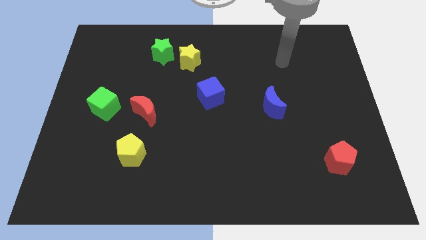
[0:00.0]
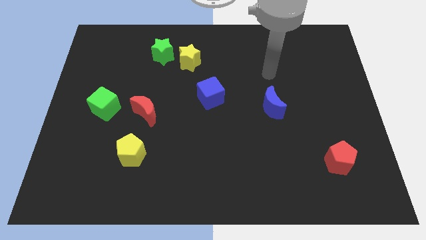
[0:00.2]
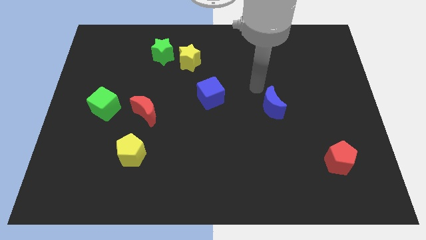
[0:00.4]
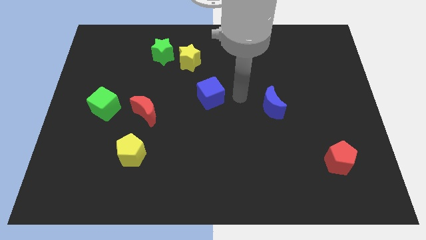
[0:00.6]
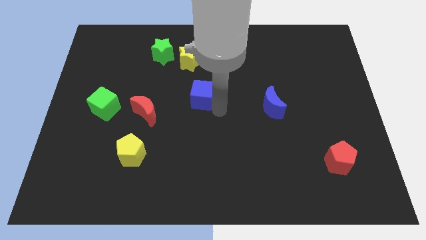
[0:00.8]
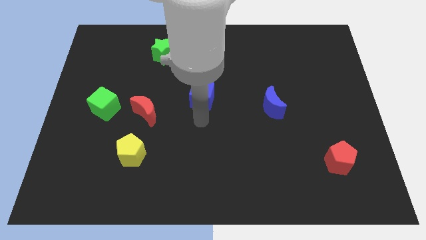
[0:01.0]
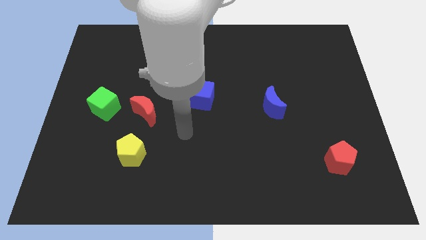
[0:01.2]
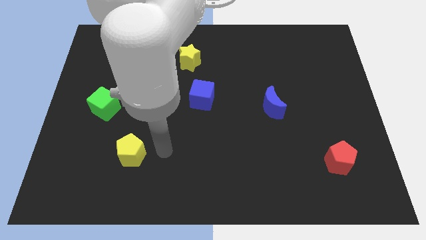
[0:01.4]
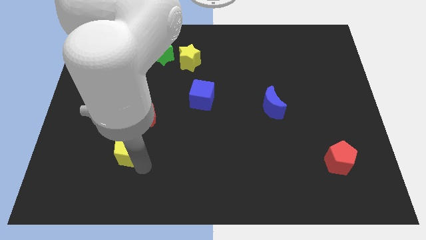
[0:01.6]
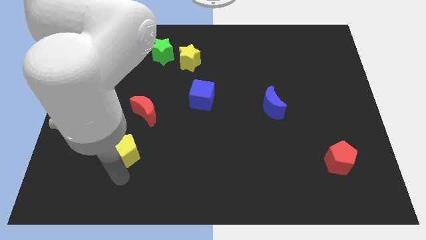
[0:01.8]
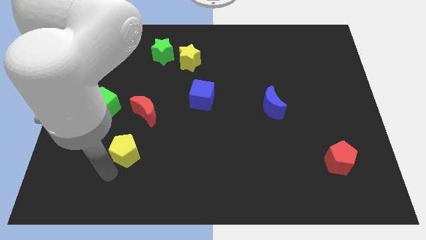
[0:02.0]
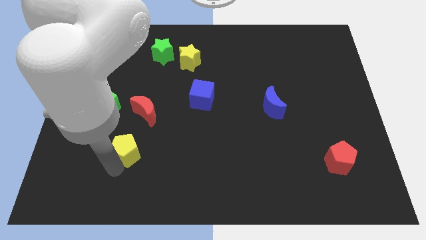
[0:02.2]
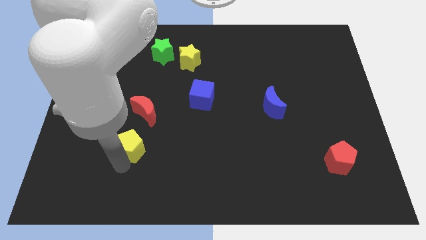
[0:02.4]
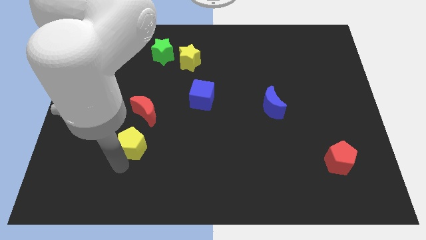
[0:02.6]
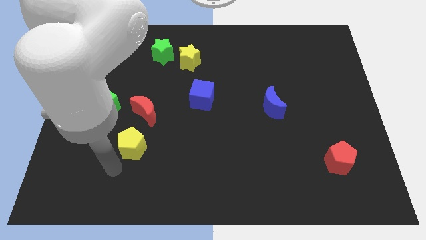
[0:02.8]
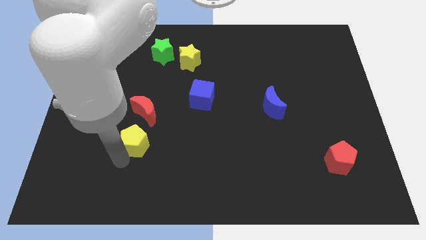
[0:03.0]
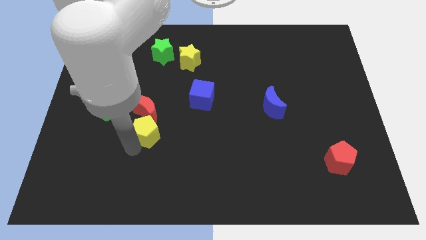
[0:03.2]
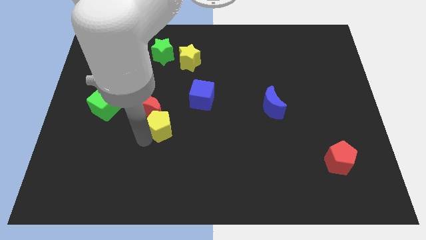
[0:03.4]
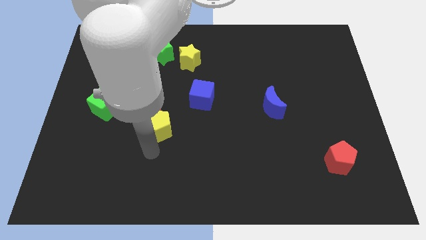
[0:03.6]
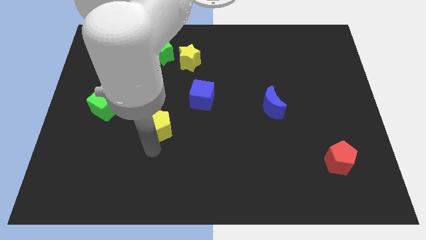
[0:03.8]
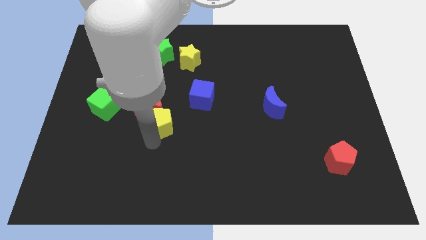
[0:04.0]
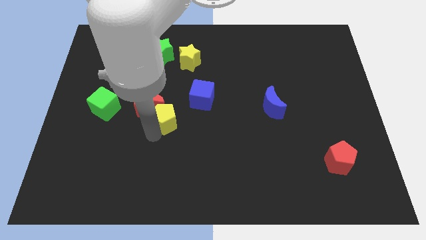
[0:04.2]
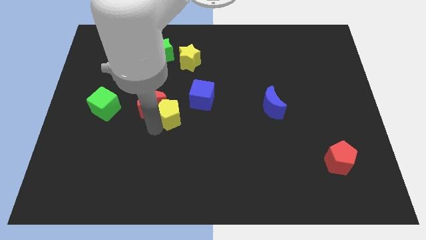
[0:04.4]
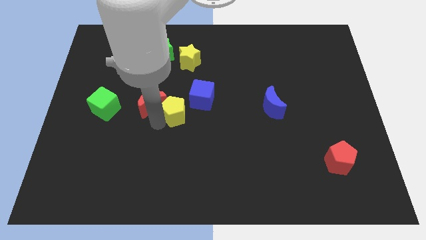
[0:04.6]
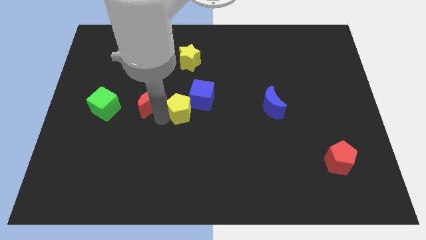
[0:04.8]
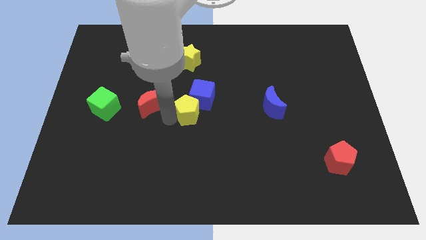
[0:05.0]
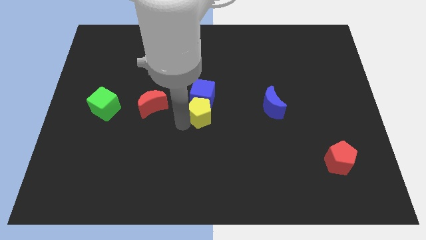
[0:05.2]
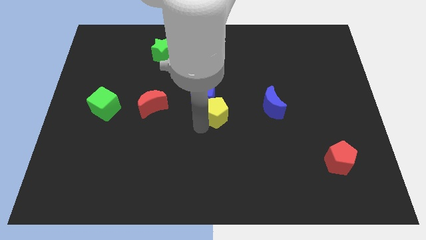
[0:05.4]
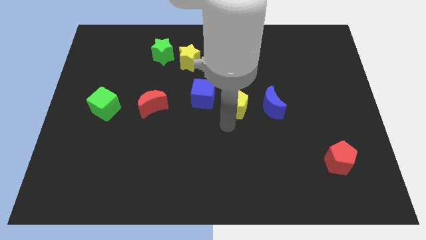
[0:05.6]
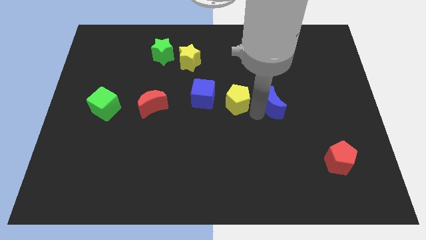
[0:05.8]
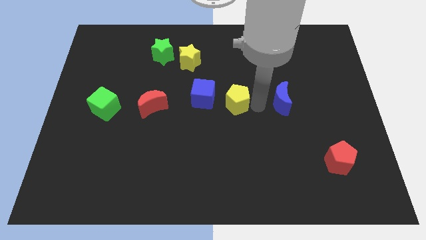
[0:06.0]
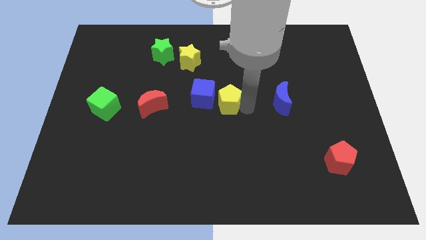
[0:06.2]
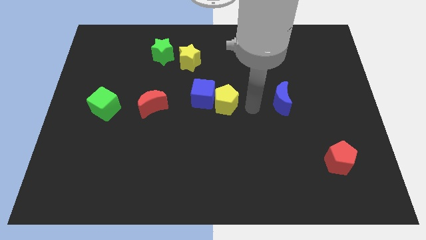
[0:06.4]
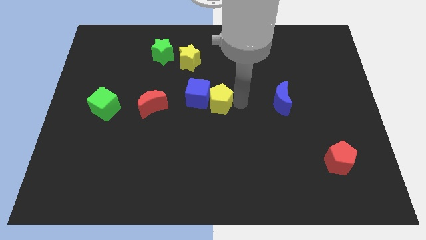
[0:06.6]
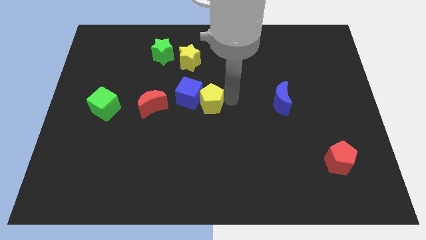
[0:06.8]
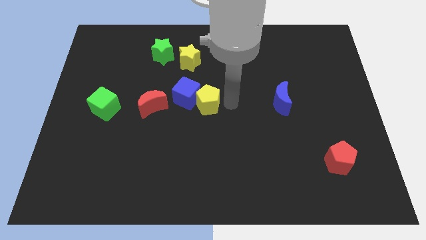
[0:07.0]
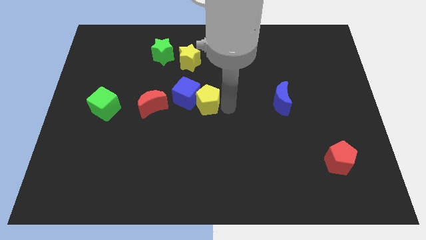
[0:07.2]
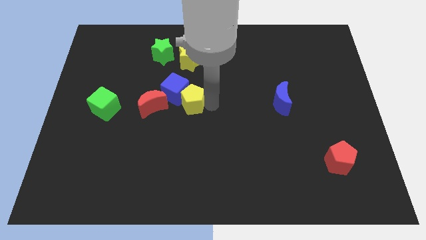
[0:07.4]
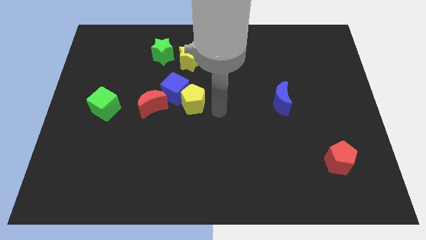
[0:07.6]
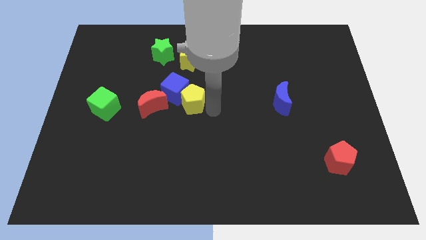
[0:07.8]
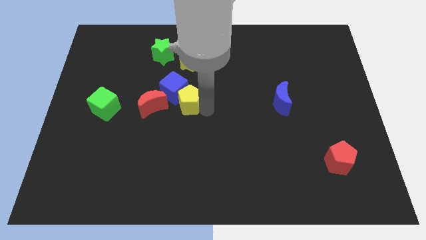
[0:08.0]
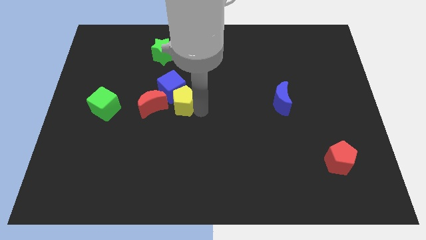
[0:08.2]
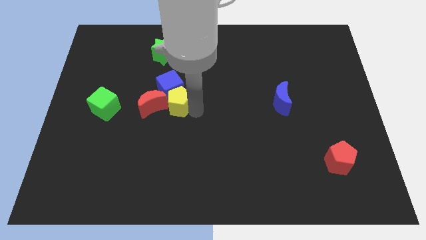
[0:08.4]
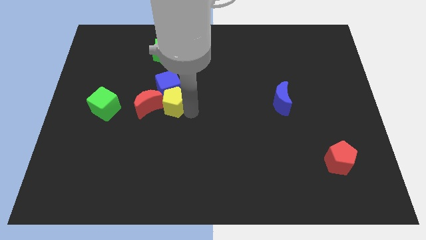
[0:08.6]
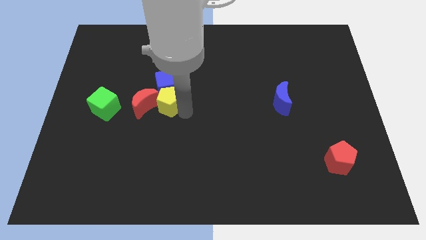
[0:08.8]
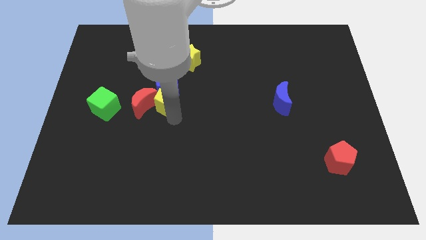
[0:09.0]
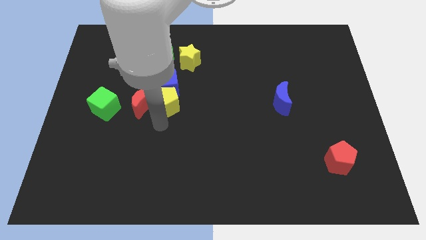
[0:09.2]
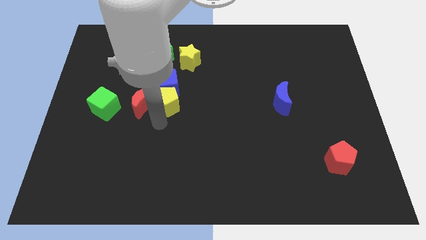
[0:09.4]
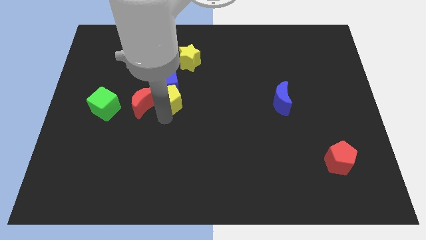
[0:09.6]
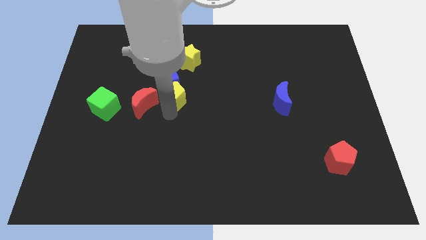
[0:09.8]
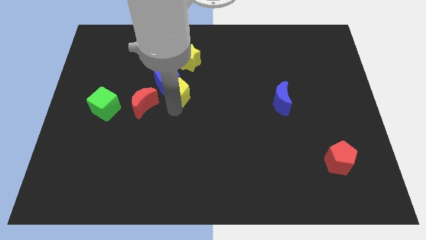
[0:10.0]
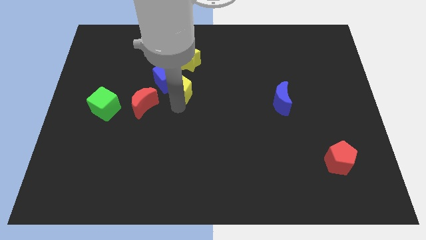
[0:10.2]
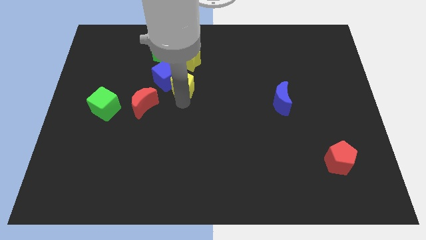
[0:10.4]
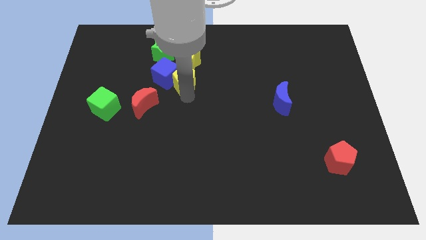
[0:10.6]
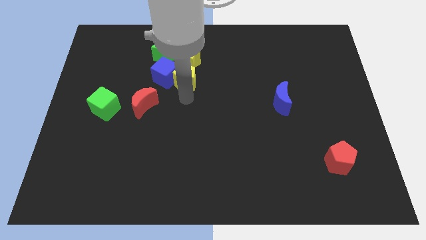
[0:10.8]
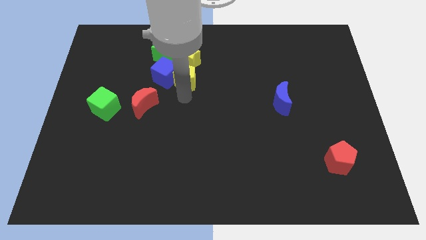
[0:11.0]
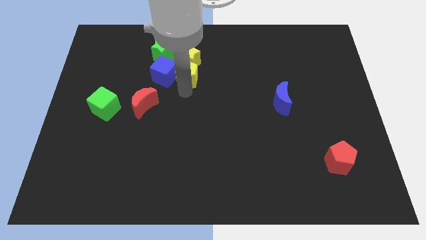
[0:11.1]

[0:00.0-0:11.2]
move the yellow pentagon close to the yellow star

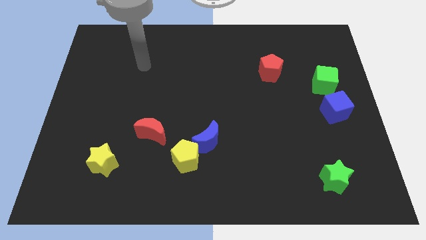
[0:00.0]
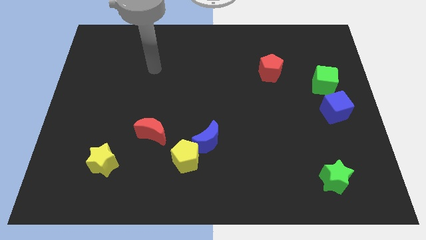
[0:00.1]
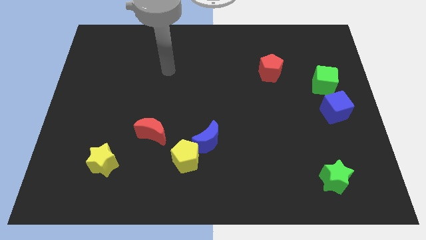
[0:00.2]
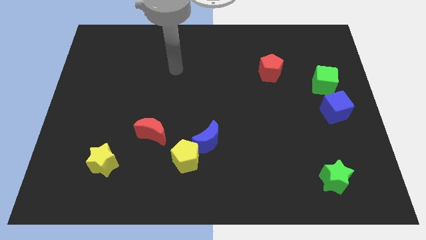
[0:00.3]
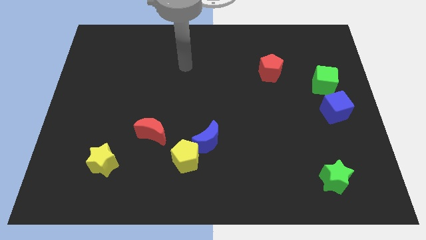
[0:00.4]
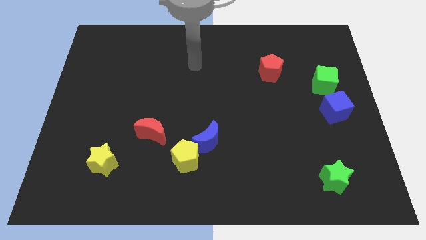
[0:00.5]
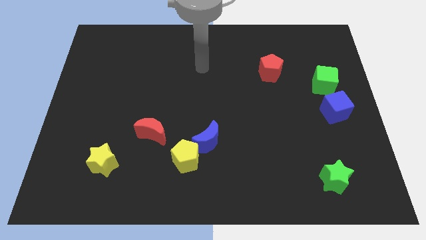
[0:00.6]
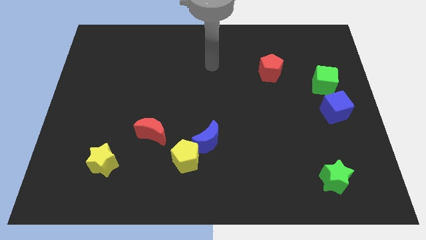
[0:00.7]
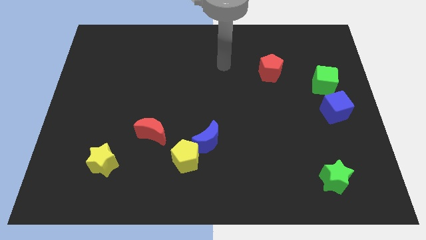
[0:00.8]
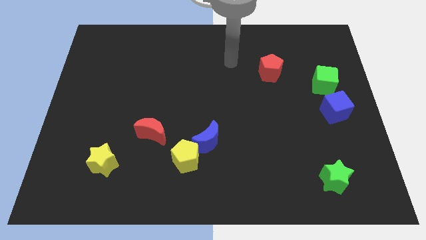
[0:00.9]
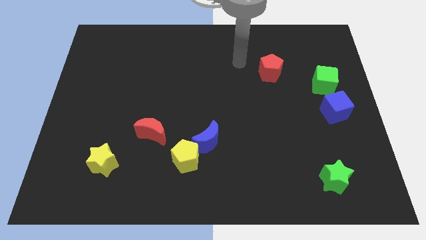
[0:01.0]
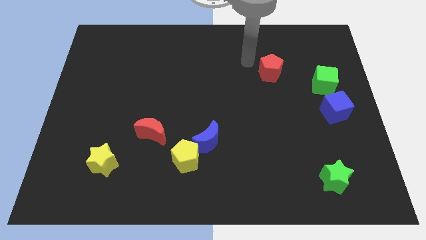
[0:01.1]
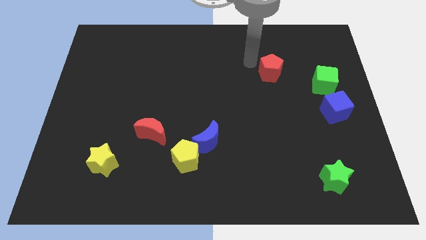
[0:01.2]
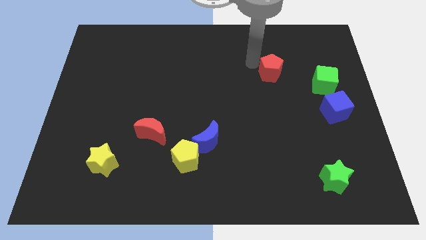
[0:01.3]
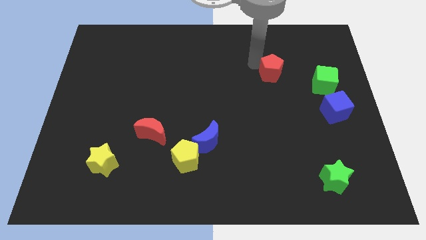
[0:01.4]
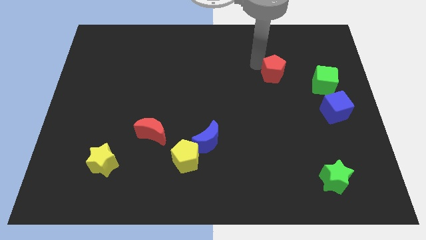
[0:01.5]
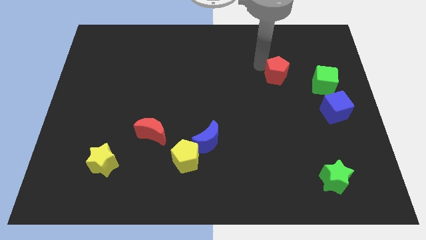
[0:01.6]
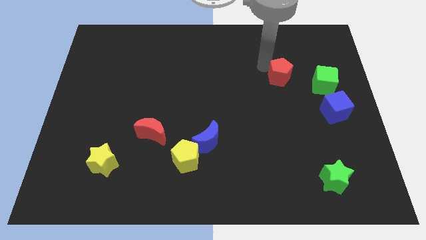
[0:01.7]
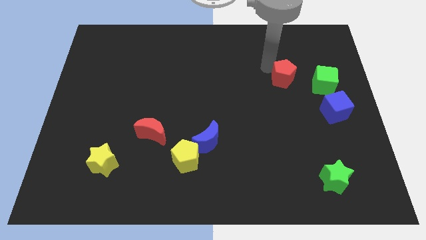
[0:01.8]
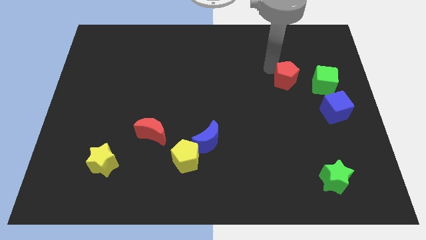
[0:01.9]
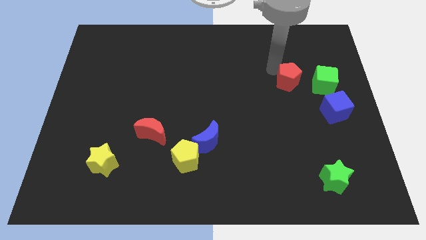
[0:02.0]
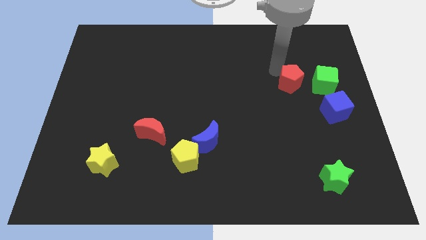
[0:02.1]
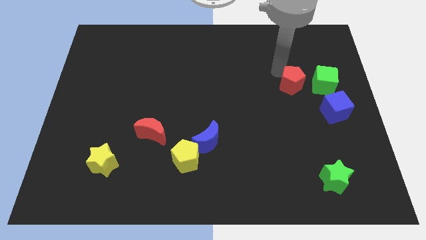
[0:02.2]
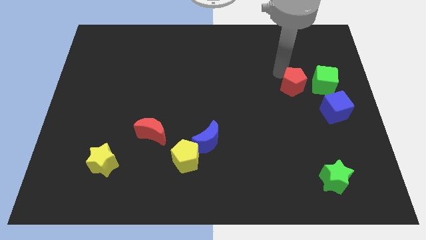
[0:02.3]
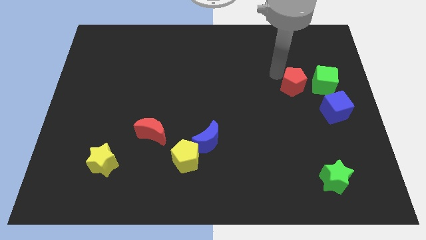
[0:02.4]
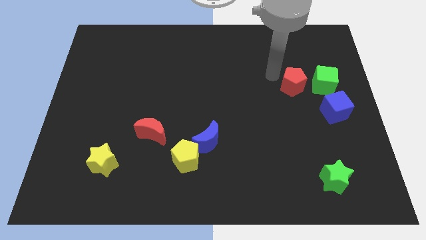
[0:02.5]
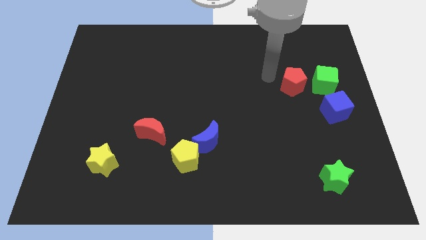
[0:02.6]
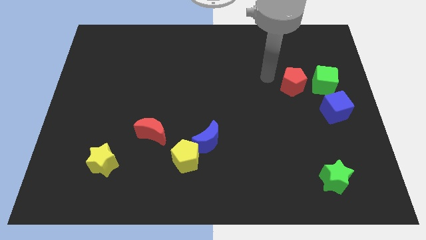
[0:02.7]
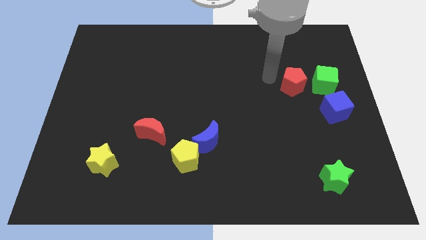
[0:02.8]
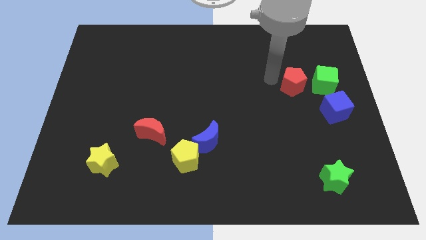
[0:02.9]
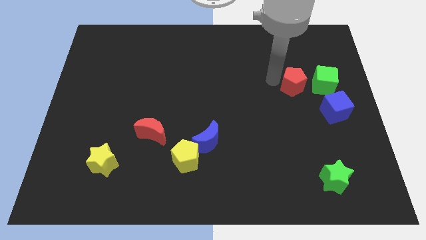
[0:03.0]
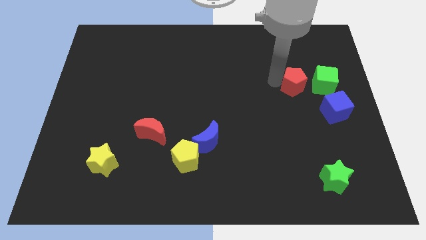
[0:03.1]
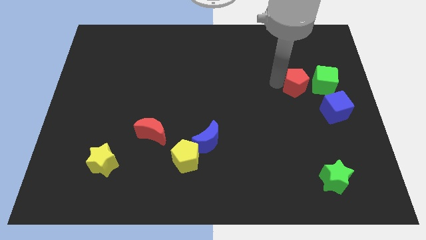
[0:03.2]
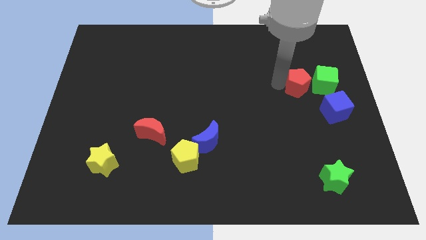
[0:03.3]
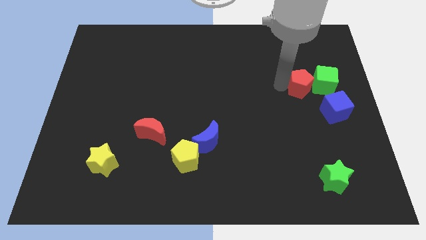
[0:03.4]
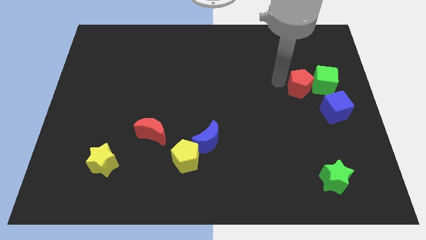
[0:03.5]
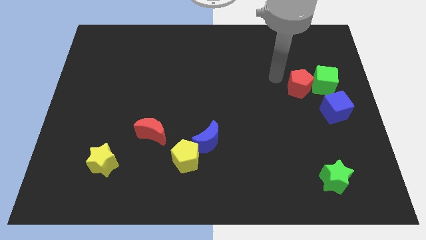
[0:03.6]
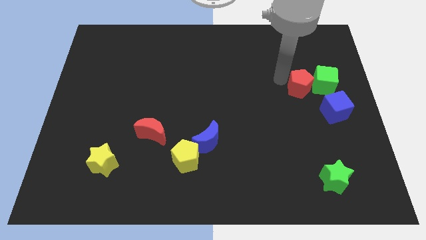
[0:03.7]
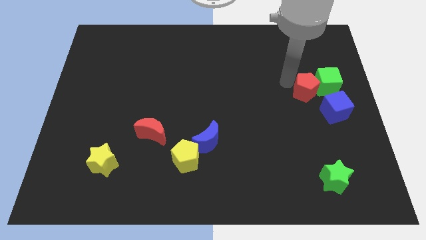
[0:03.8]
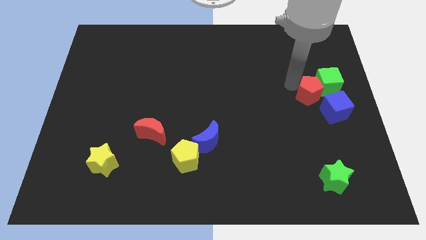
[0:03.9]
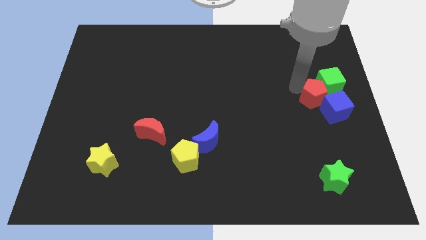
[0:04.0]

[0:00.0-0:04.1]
put the red pentagon next to the blue cube
